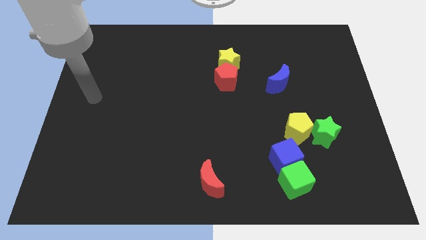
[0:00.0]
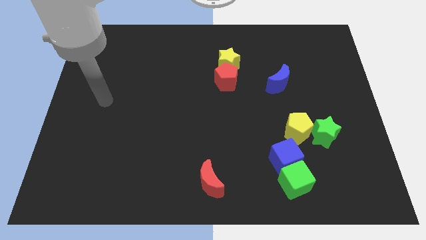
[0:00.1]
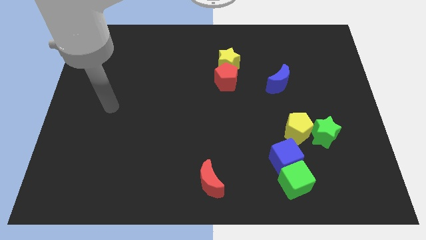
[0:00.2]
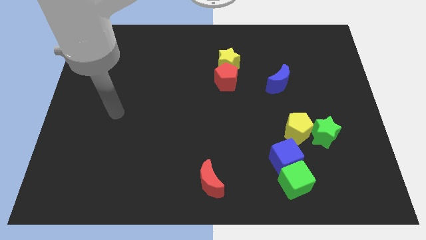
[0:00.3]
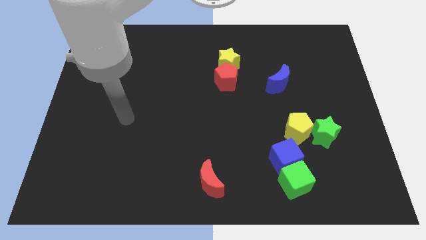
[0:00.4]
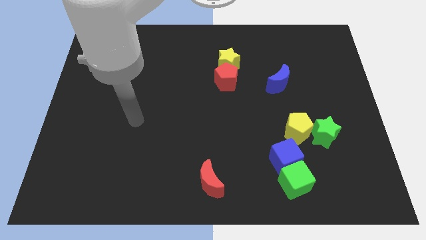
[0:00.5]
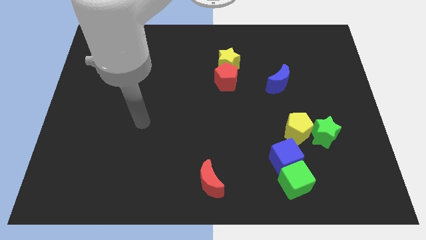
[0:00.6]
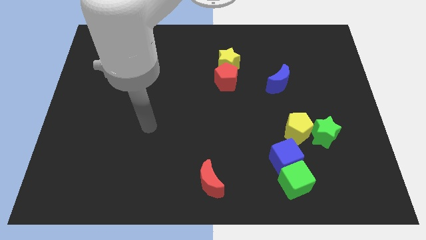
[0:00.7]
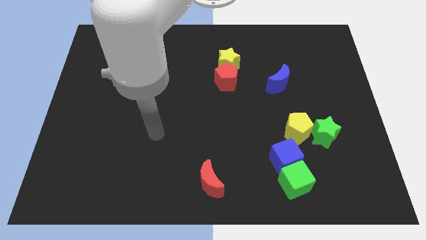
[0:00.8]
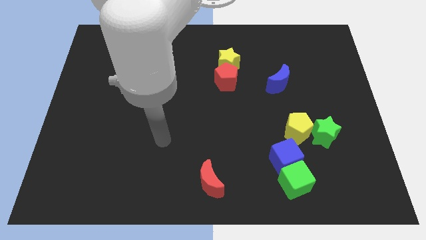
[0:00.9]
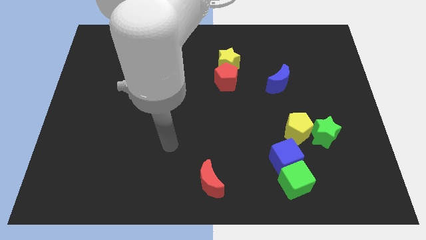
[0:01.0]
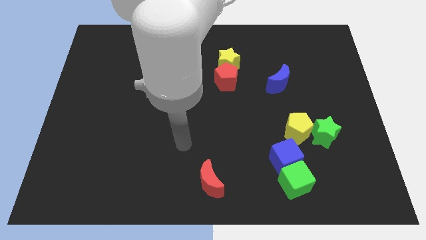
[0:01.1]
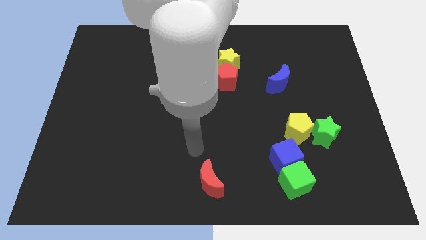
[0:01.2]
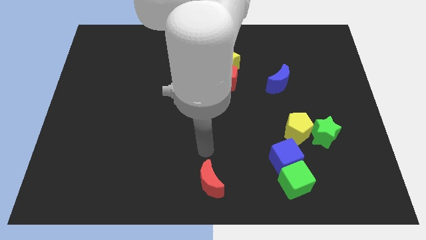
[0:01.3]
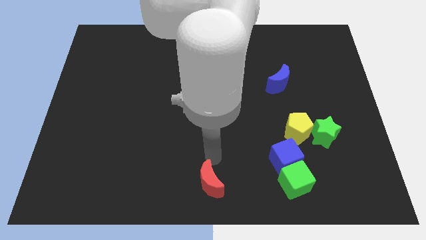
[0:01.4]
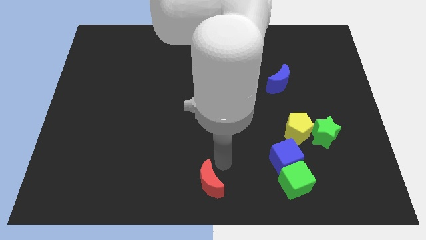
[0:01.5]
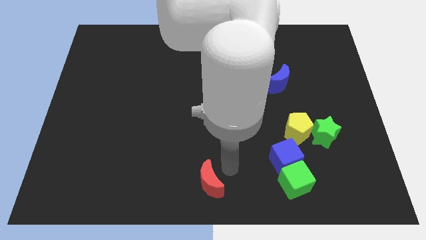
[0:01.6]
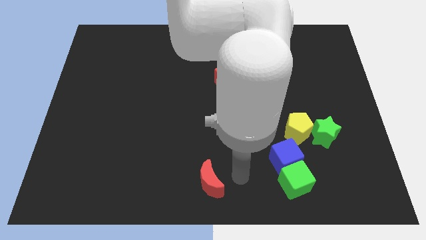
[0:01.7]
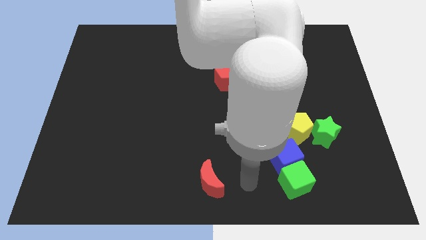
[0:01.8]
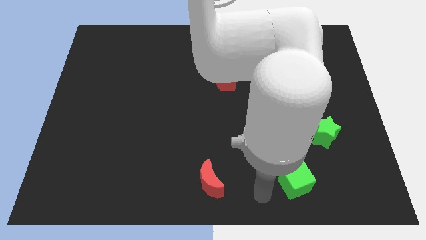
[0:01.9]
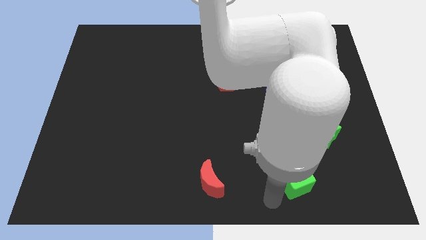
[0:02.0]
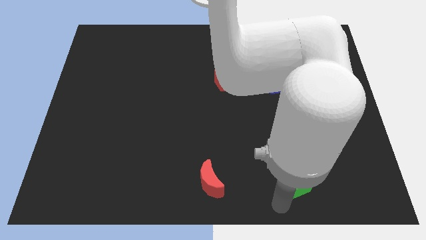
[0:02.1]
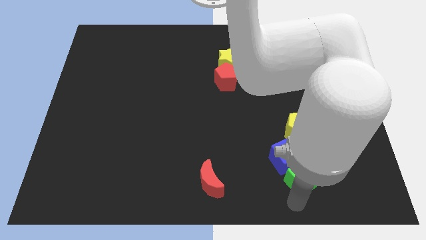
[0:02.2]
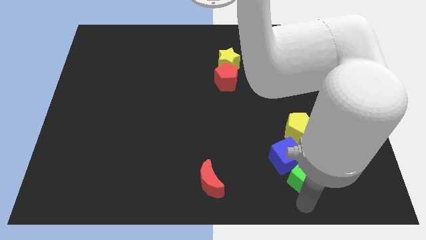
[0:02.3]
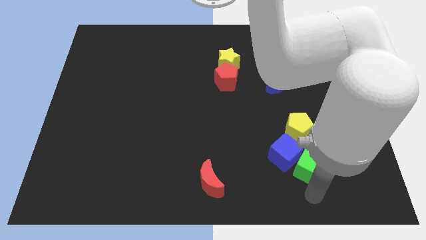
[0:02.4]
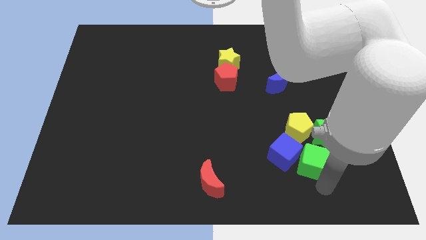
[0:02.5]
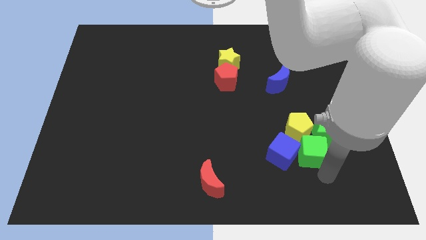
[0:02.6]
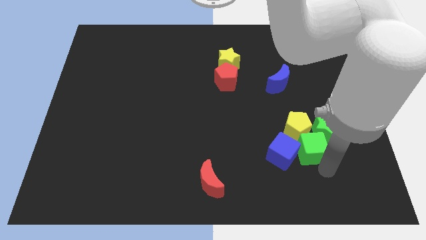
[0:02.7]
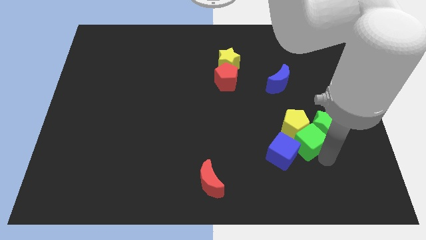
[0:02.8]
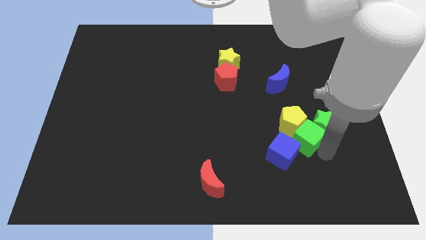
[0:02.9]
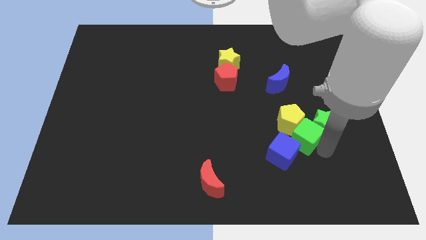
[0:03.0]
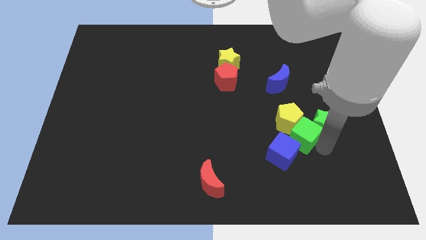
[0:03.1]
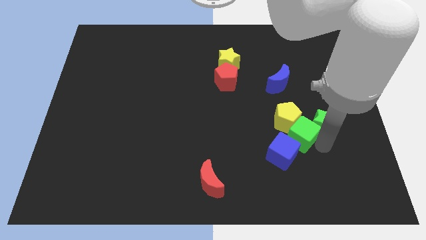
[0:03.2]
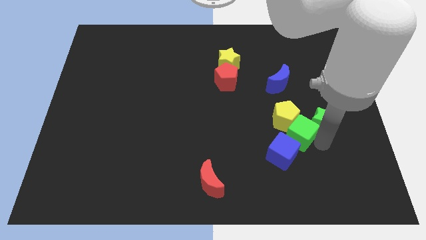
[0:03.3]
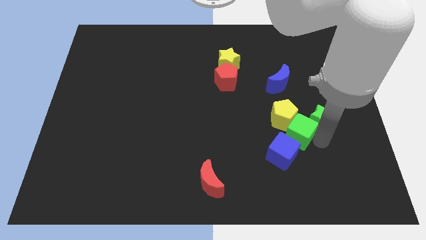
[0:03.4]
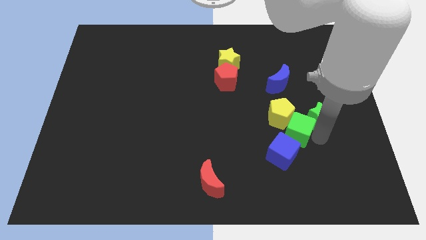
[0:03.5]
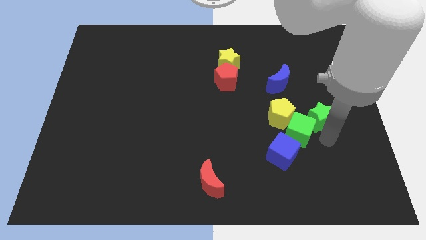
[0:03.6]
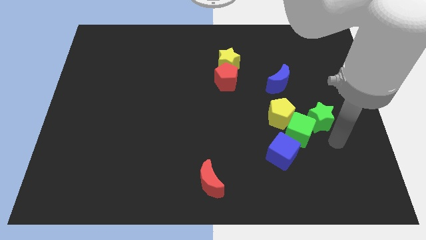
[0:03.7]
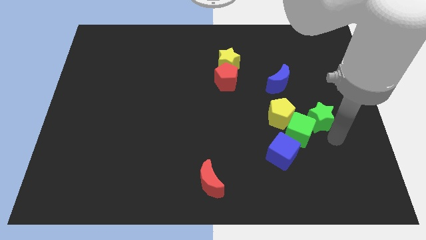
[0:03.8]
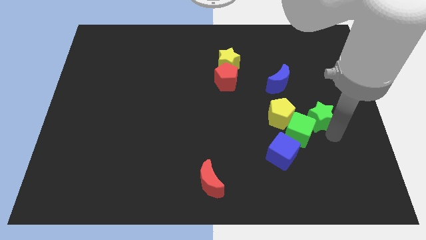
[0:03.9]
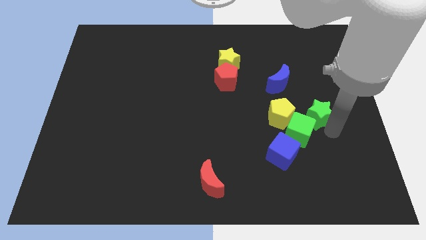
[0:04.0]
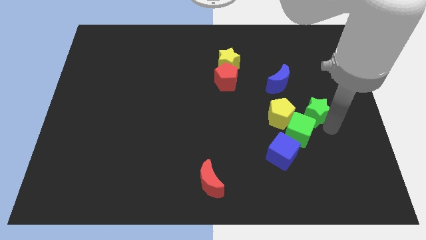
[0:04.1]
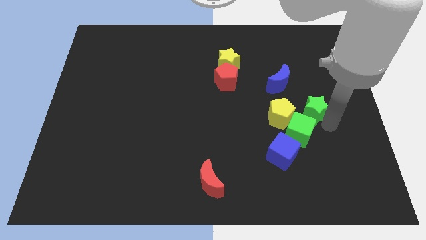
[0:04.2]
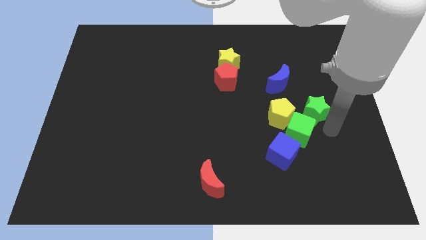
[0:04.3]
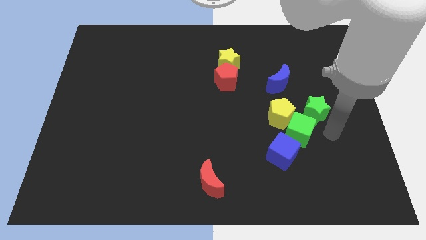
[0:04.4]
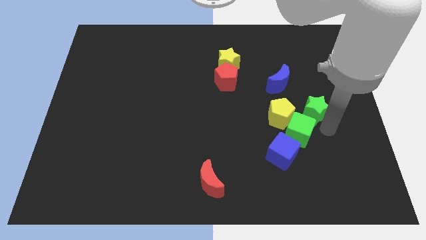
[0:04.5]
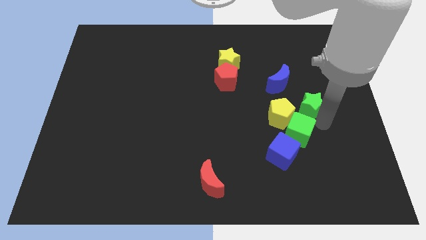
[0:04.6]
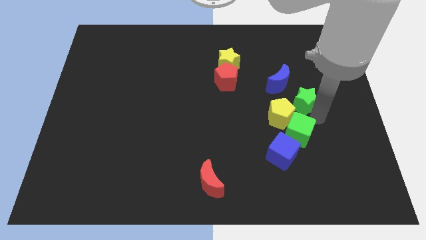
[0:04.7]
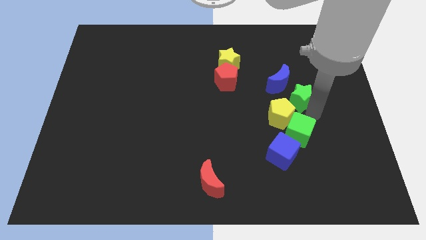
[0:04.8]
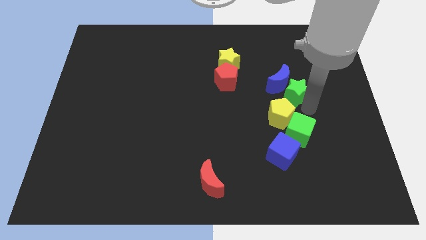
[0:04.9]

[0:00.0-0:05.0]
move the green star next to the blue moon

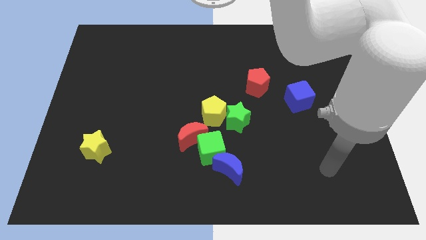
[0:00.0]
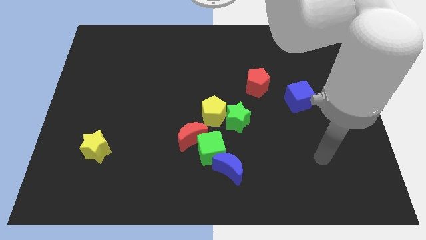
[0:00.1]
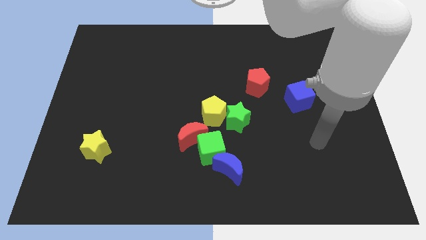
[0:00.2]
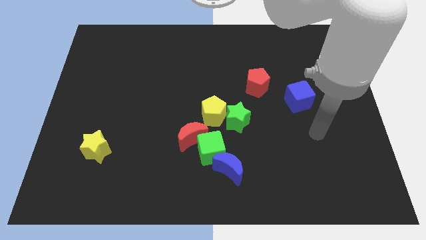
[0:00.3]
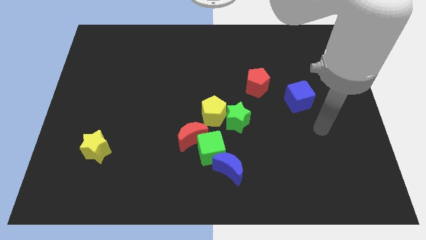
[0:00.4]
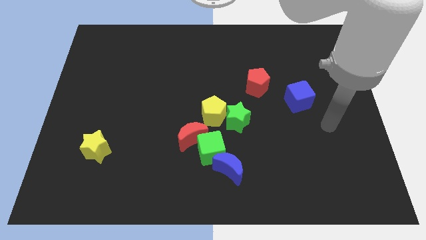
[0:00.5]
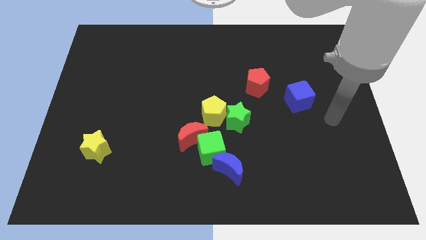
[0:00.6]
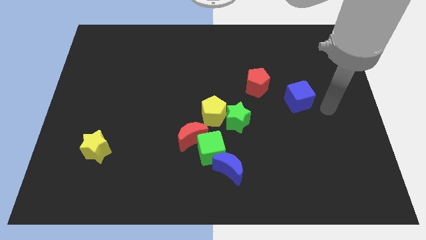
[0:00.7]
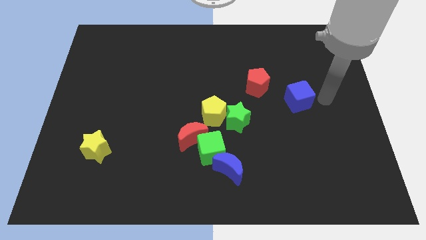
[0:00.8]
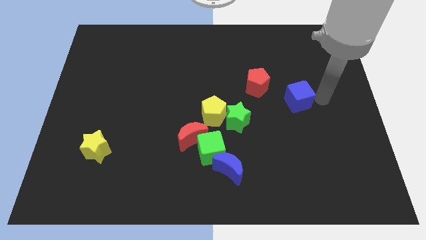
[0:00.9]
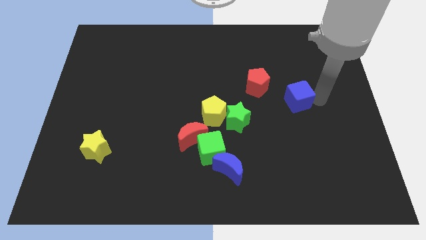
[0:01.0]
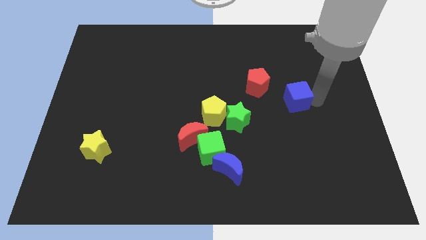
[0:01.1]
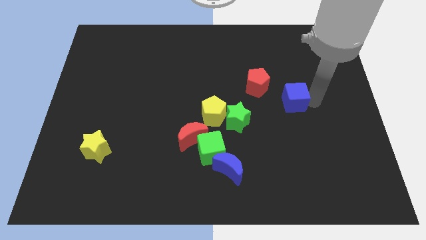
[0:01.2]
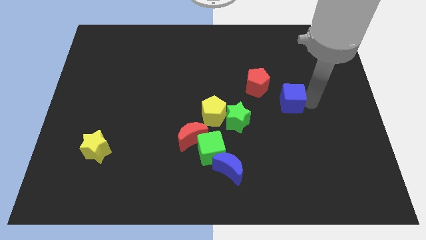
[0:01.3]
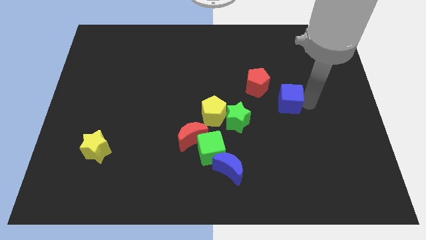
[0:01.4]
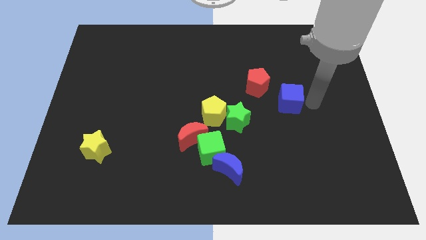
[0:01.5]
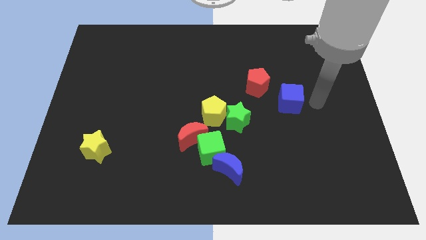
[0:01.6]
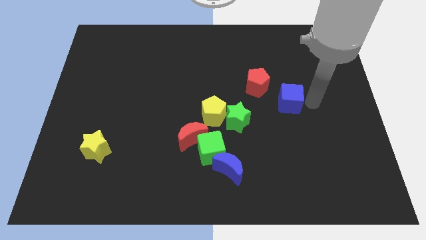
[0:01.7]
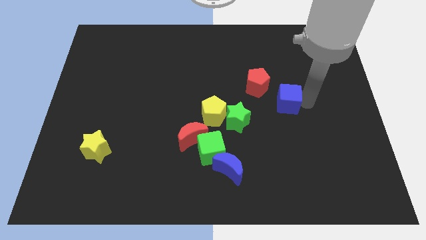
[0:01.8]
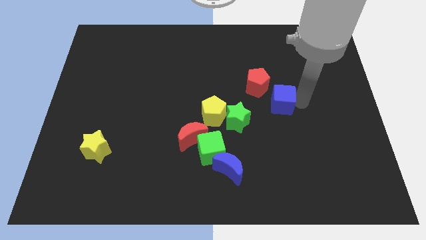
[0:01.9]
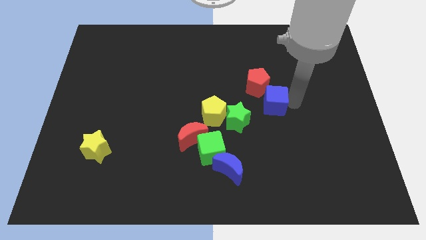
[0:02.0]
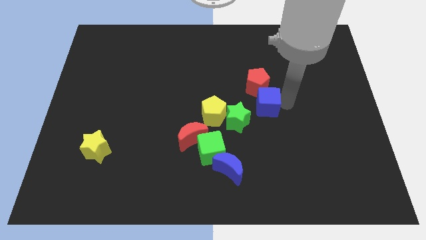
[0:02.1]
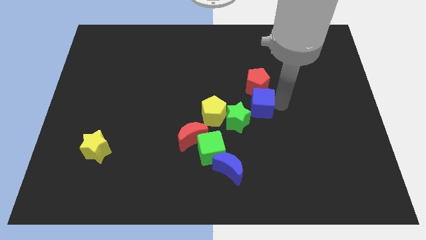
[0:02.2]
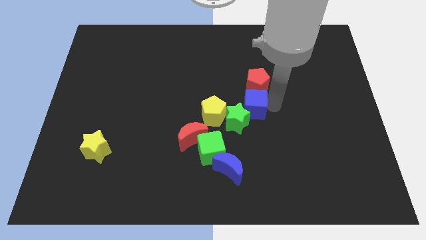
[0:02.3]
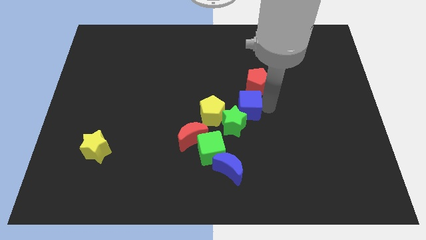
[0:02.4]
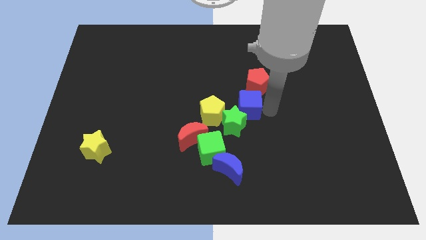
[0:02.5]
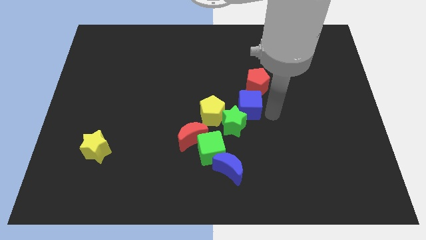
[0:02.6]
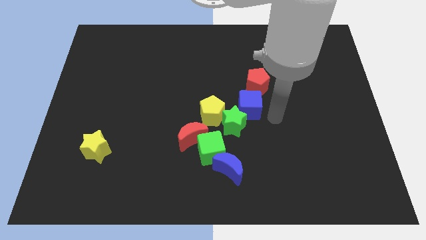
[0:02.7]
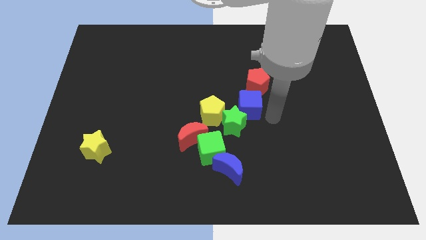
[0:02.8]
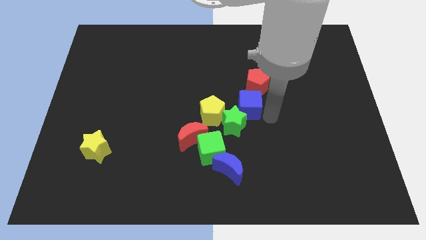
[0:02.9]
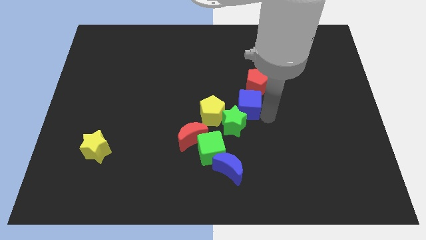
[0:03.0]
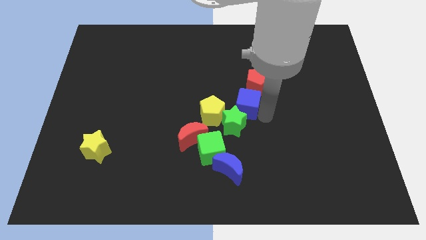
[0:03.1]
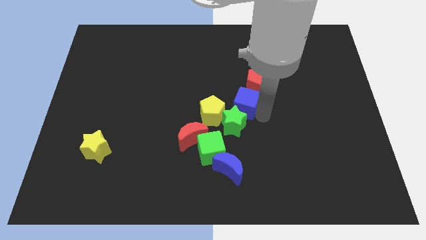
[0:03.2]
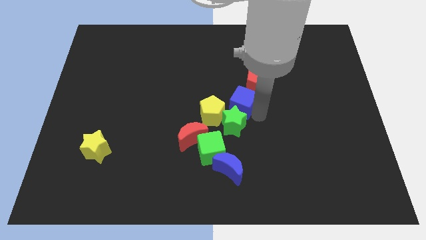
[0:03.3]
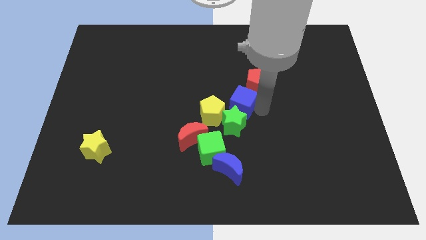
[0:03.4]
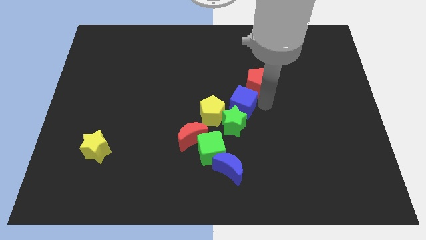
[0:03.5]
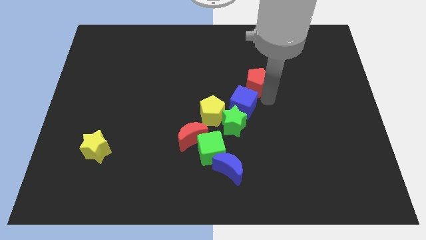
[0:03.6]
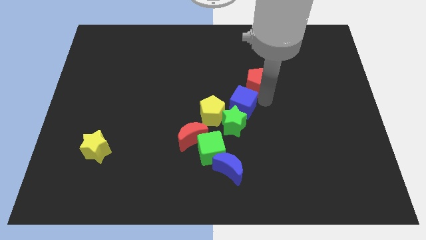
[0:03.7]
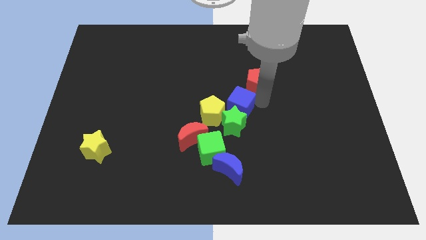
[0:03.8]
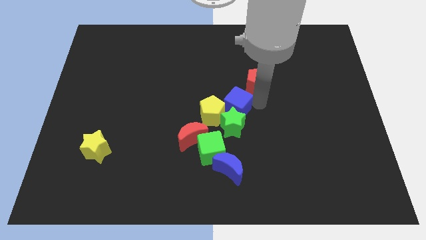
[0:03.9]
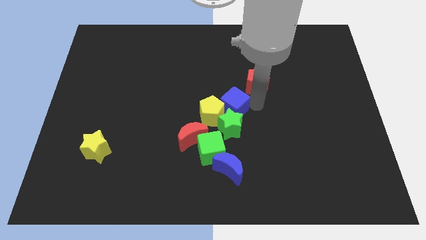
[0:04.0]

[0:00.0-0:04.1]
put the blue cube next to the yellow pentagon
